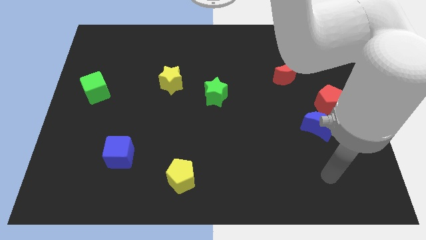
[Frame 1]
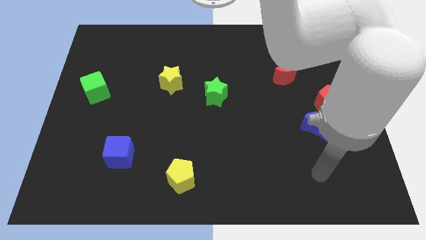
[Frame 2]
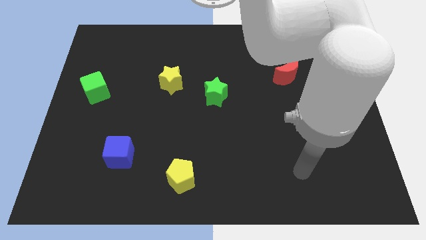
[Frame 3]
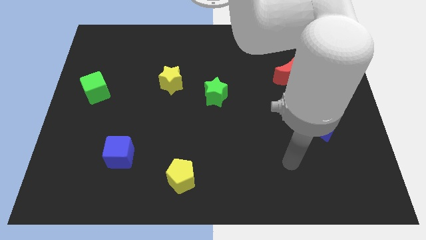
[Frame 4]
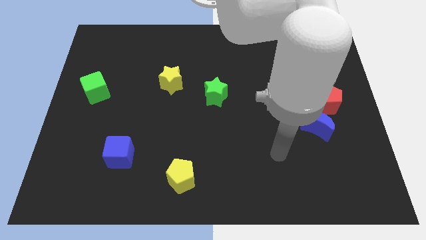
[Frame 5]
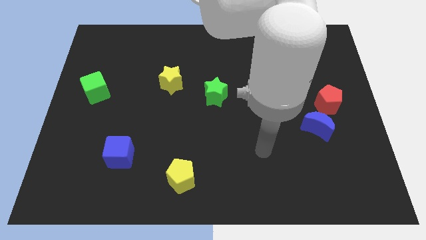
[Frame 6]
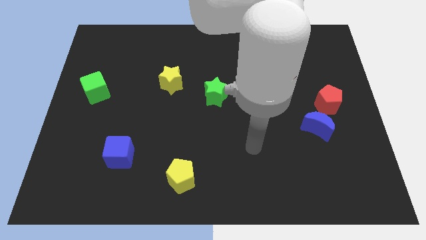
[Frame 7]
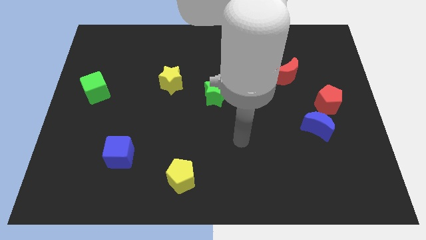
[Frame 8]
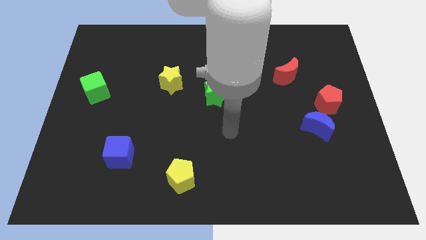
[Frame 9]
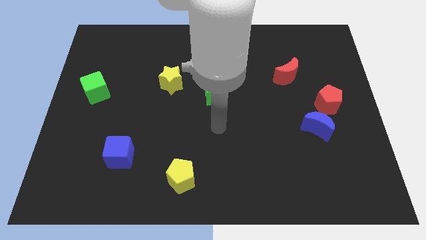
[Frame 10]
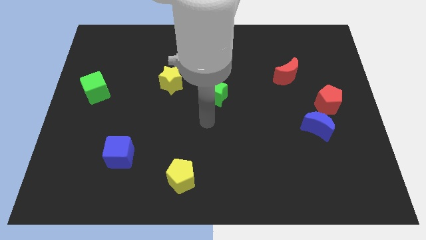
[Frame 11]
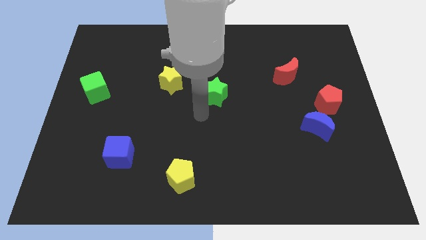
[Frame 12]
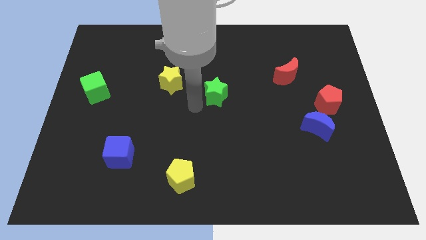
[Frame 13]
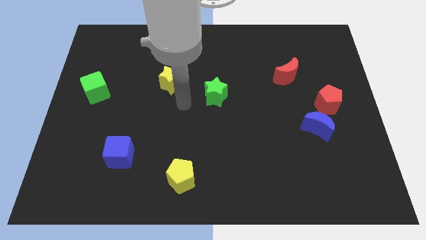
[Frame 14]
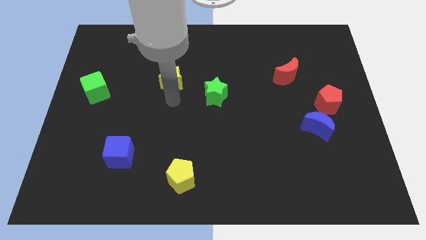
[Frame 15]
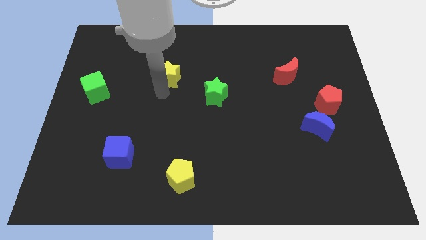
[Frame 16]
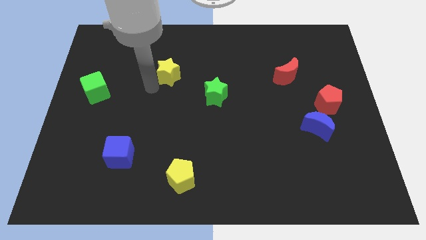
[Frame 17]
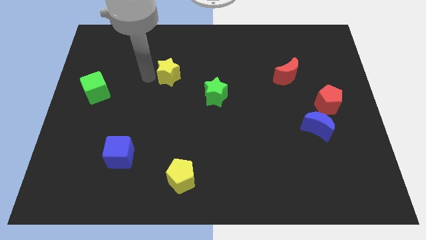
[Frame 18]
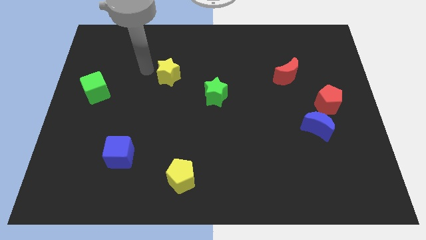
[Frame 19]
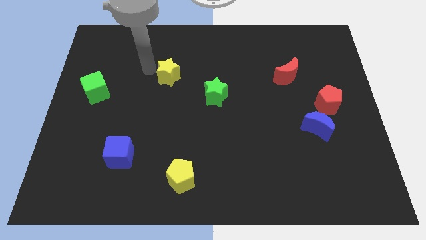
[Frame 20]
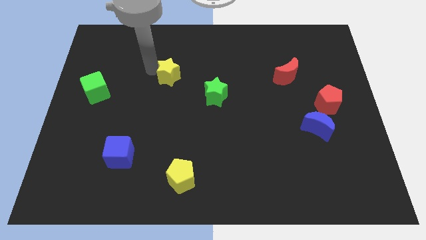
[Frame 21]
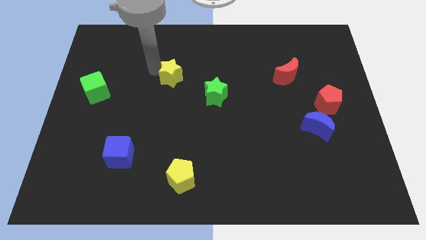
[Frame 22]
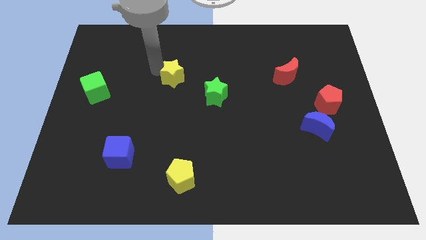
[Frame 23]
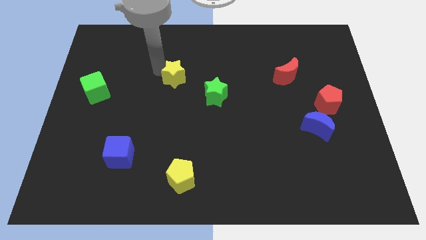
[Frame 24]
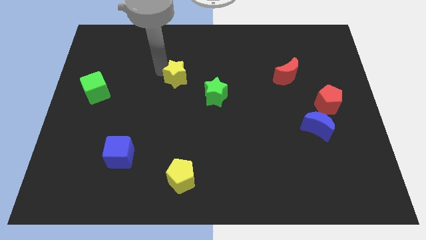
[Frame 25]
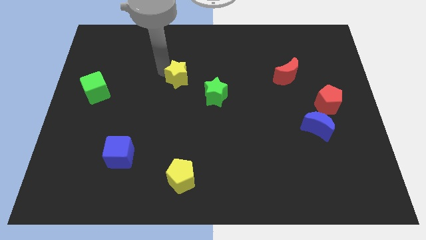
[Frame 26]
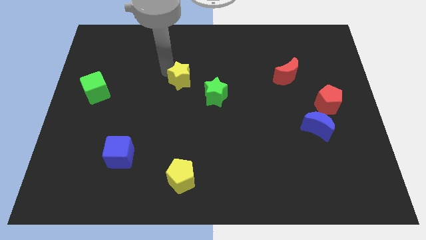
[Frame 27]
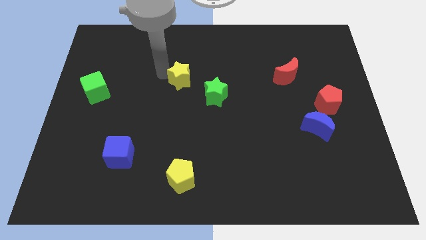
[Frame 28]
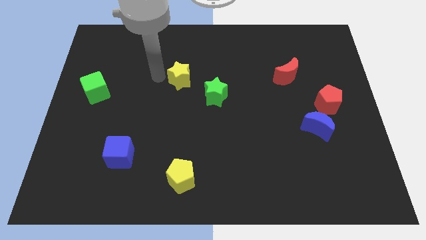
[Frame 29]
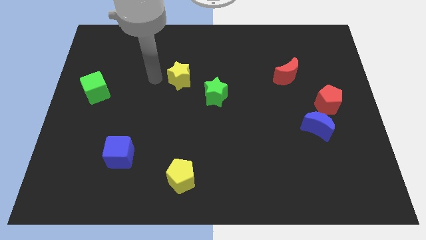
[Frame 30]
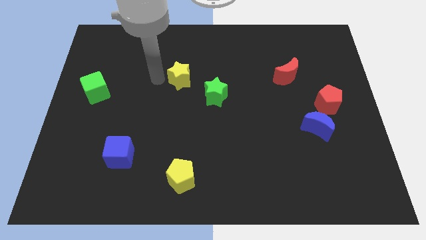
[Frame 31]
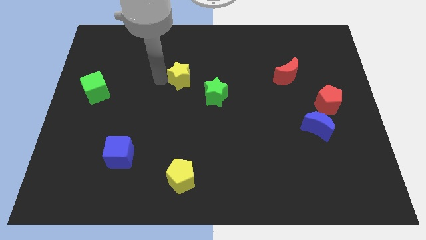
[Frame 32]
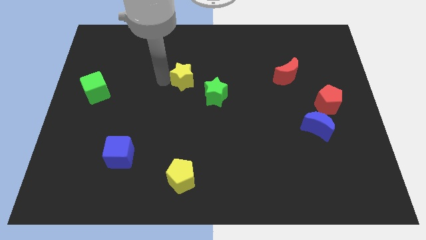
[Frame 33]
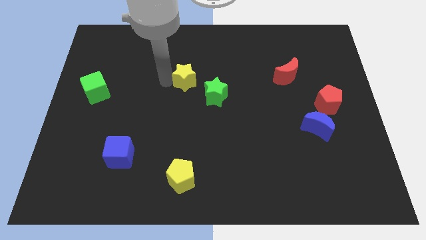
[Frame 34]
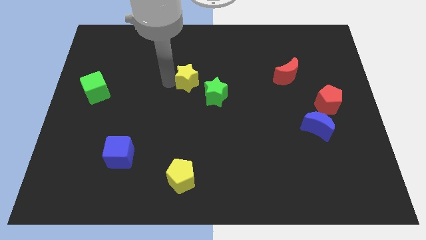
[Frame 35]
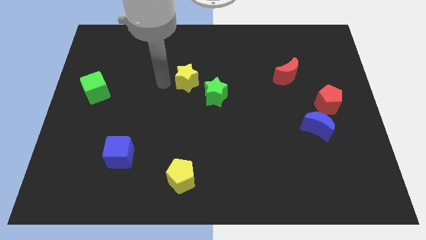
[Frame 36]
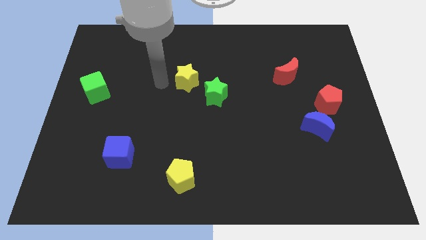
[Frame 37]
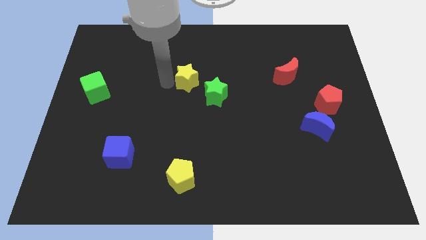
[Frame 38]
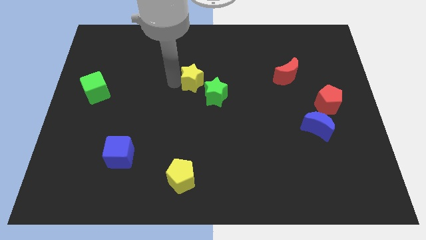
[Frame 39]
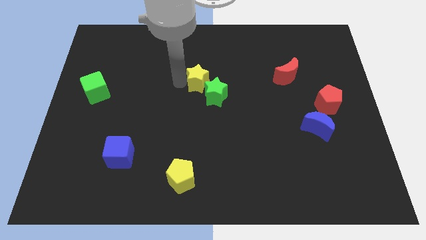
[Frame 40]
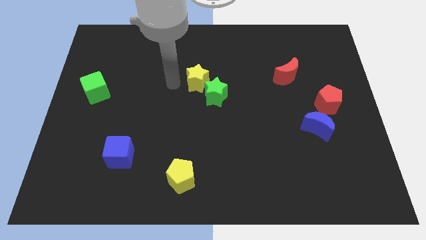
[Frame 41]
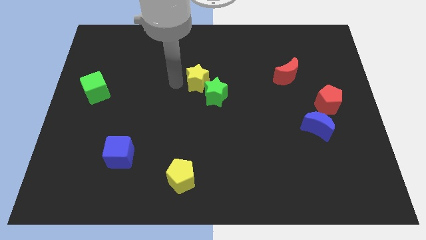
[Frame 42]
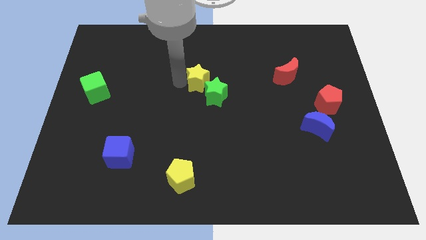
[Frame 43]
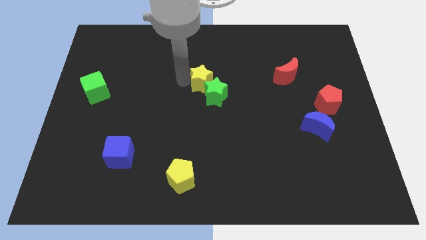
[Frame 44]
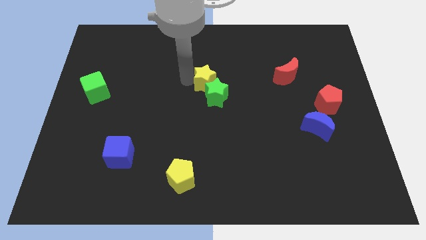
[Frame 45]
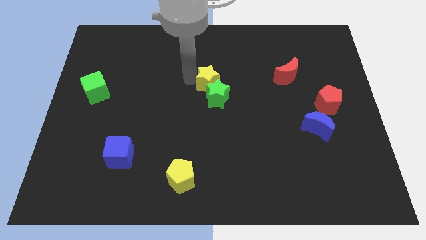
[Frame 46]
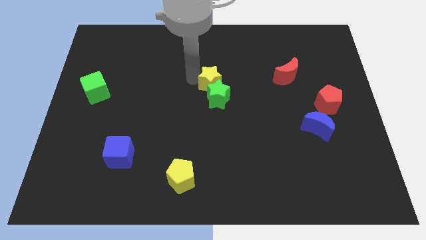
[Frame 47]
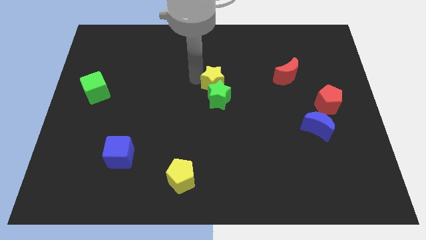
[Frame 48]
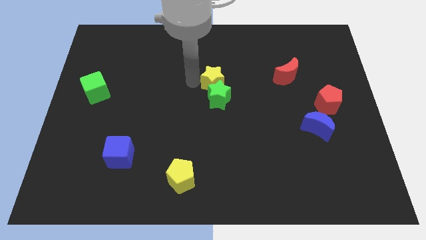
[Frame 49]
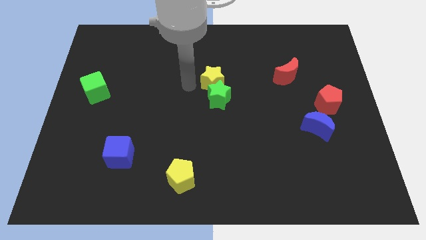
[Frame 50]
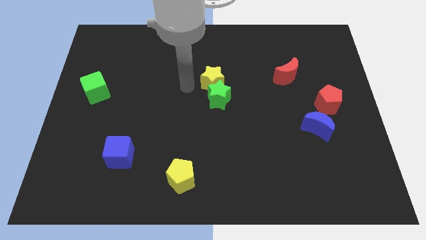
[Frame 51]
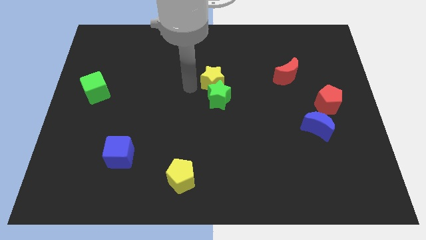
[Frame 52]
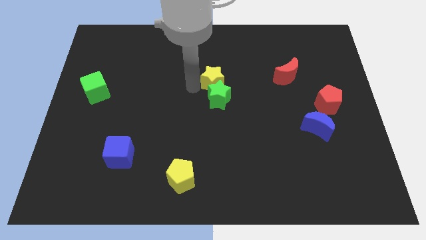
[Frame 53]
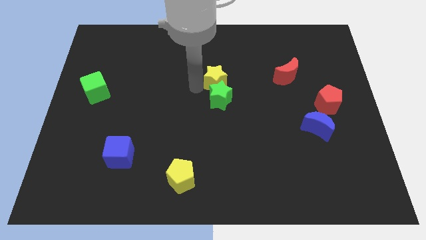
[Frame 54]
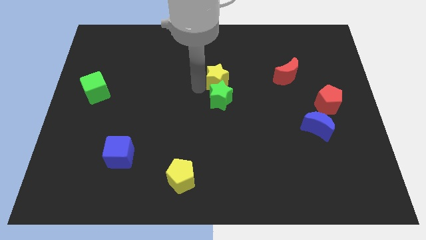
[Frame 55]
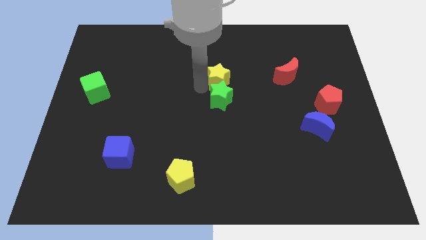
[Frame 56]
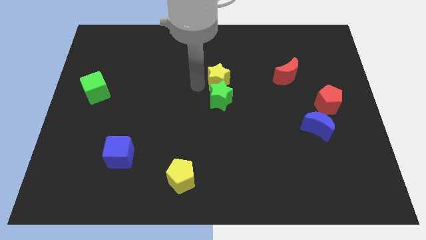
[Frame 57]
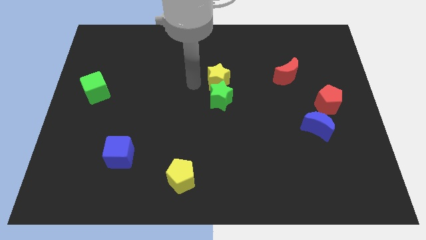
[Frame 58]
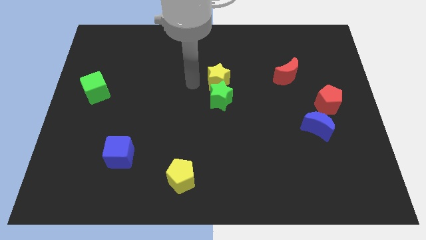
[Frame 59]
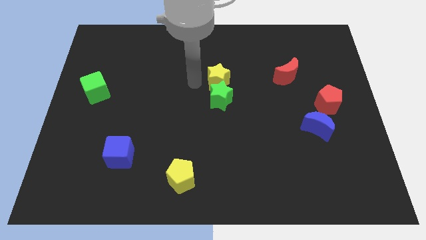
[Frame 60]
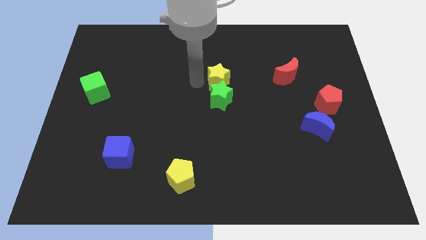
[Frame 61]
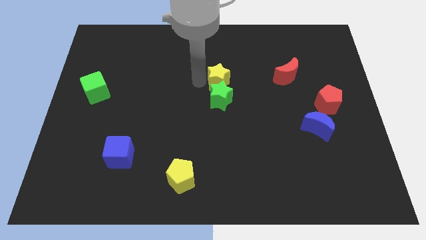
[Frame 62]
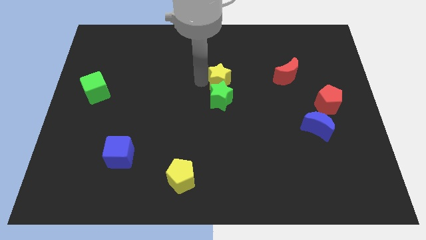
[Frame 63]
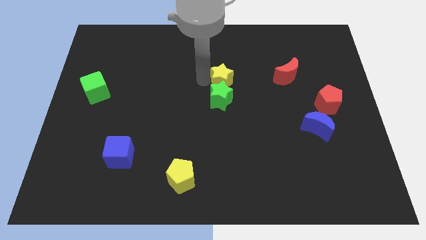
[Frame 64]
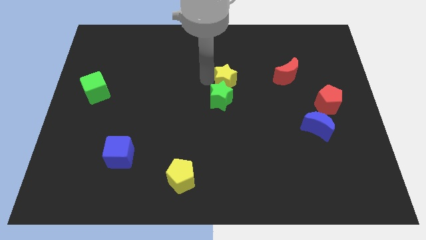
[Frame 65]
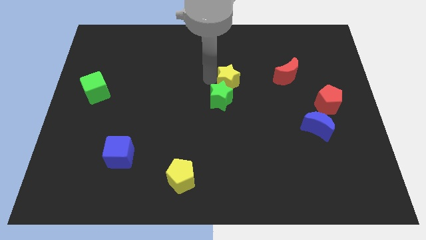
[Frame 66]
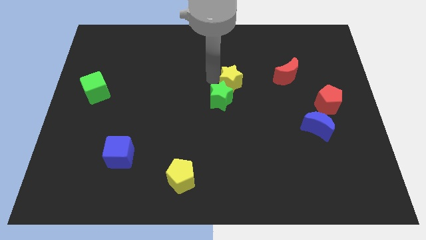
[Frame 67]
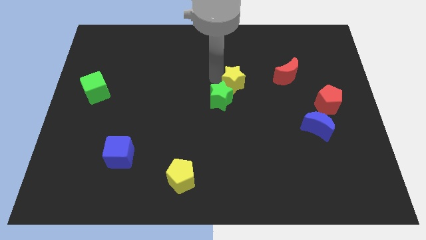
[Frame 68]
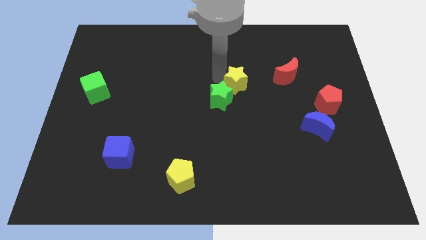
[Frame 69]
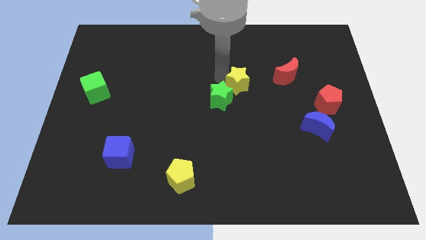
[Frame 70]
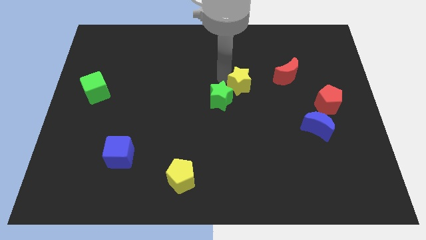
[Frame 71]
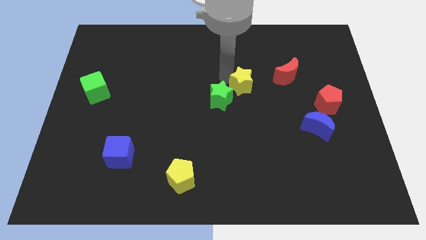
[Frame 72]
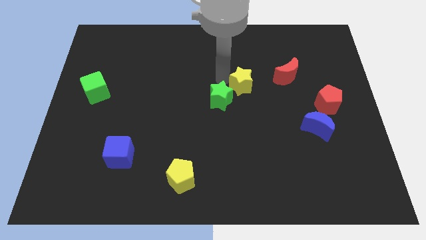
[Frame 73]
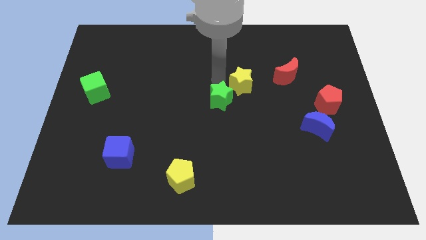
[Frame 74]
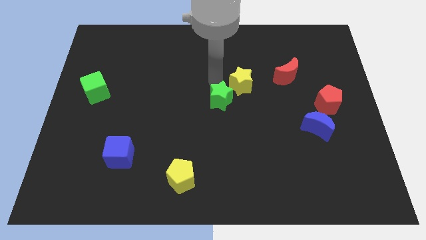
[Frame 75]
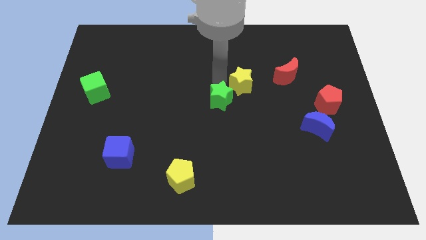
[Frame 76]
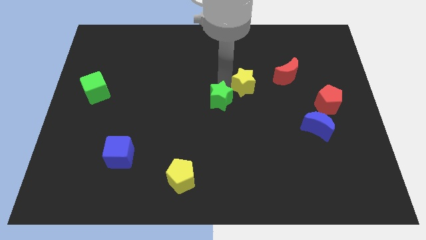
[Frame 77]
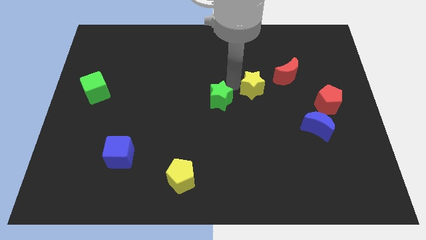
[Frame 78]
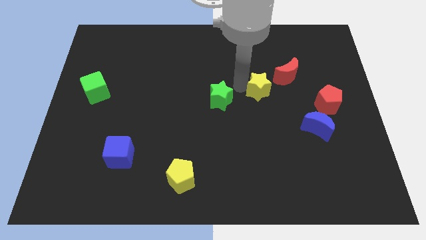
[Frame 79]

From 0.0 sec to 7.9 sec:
slide the yellow star right

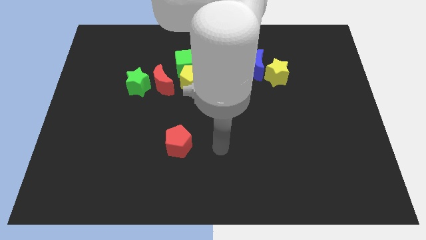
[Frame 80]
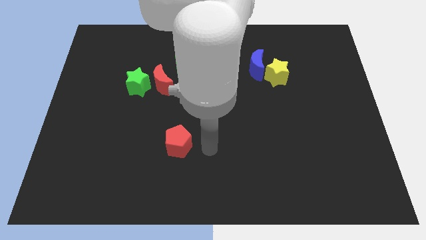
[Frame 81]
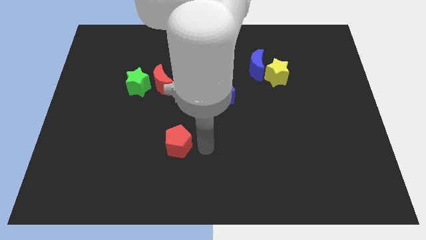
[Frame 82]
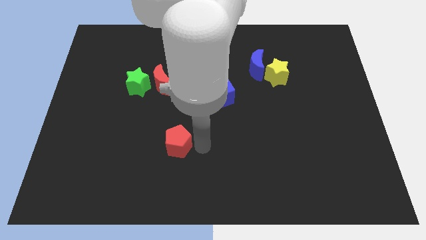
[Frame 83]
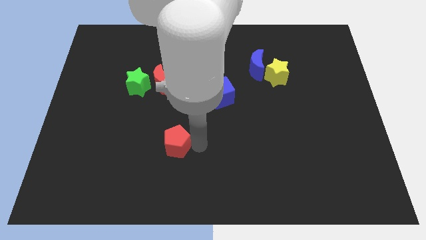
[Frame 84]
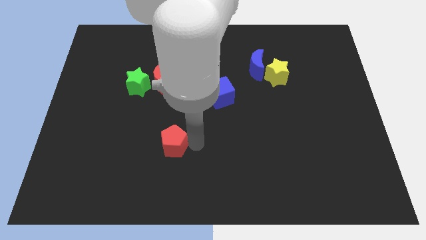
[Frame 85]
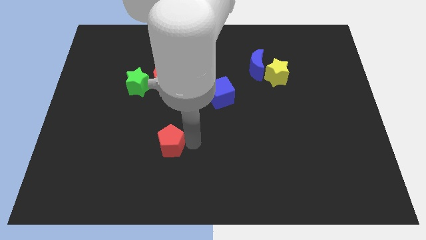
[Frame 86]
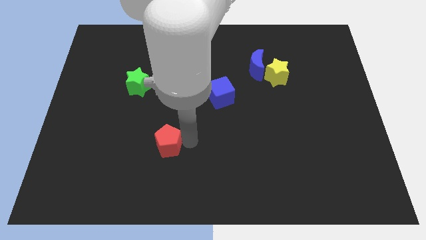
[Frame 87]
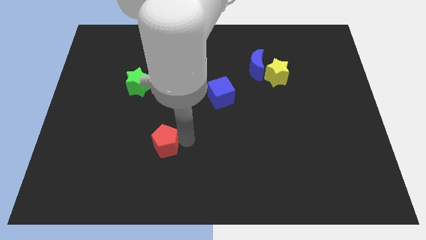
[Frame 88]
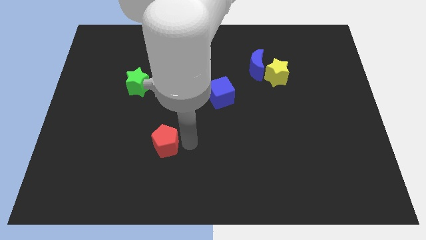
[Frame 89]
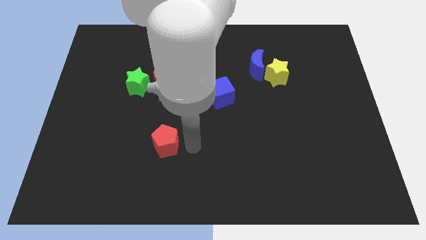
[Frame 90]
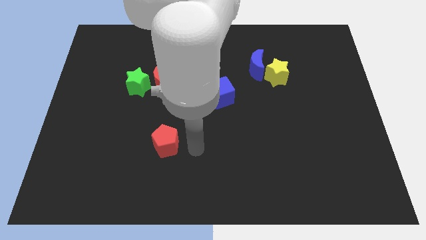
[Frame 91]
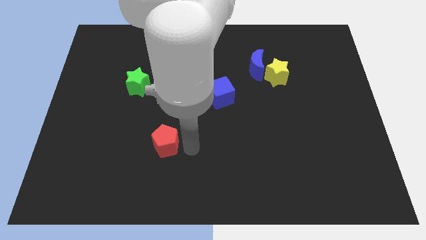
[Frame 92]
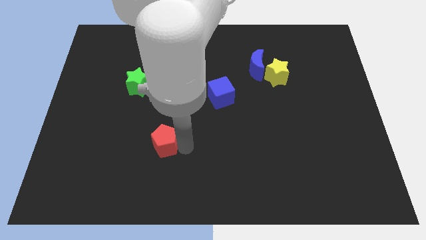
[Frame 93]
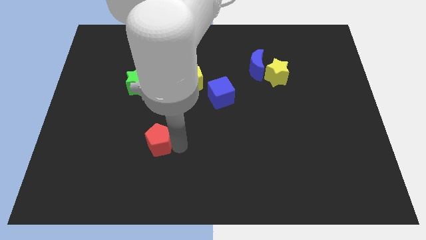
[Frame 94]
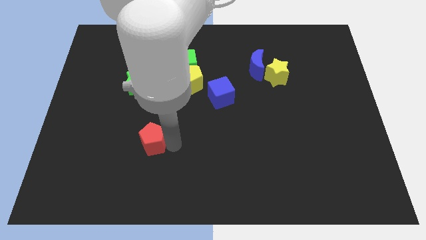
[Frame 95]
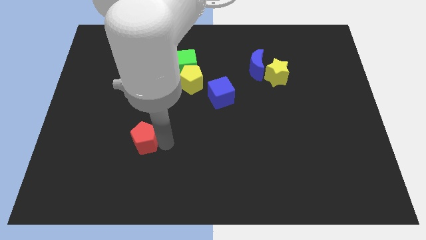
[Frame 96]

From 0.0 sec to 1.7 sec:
push the red pentagon to the left slightly
